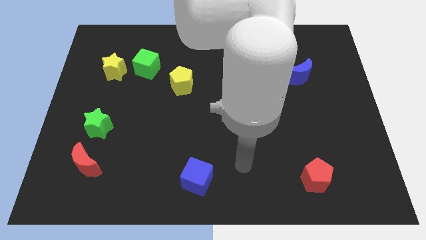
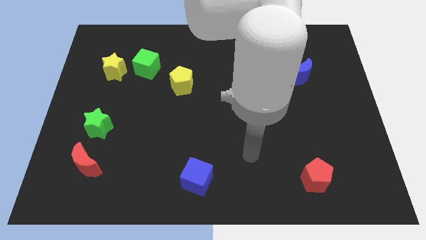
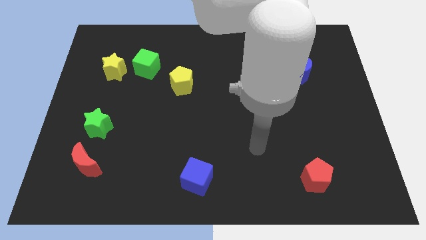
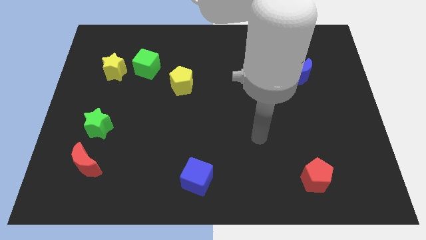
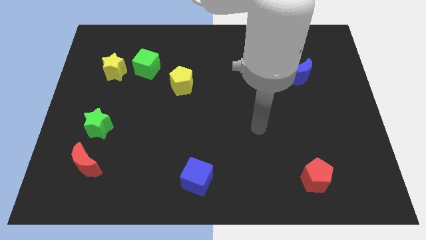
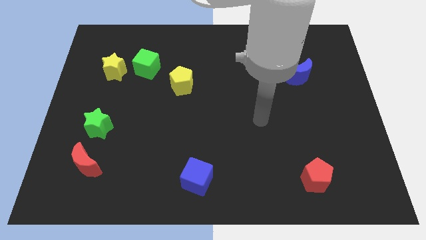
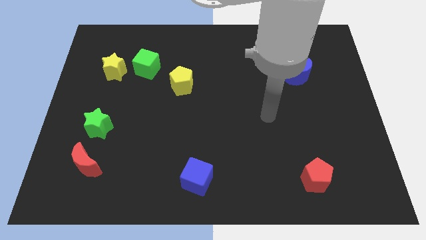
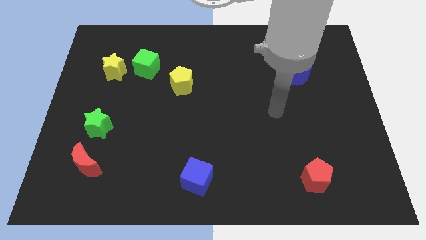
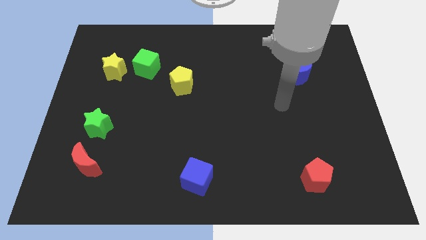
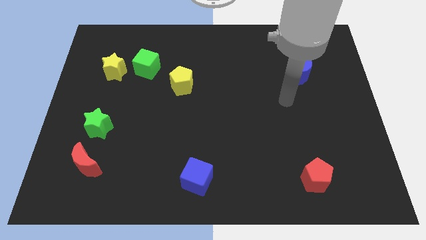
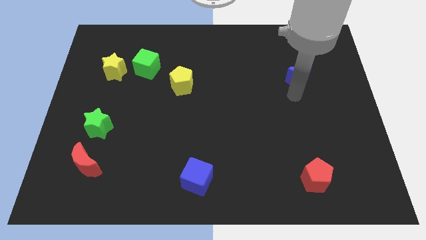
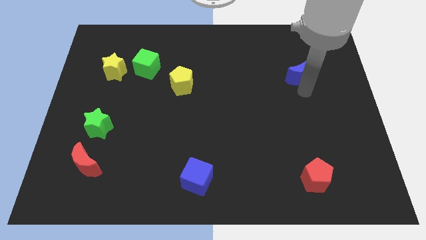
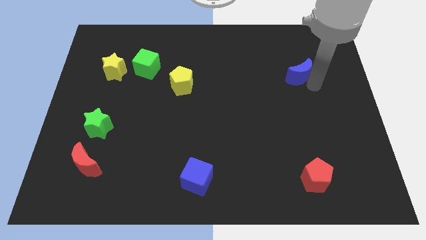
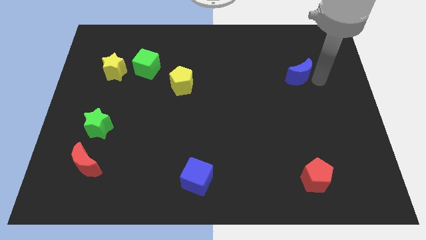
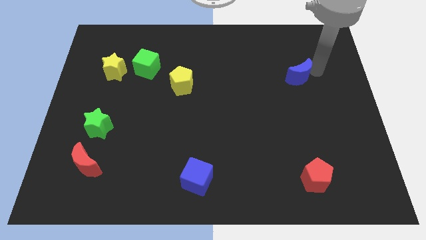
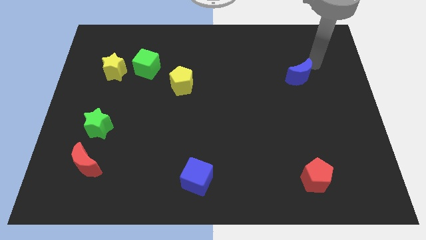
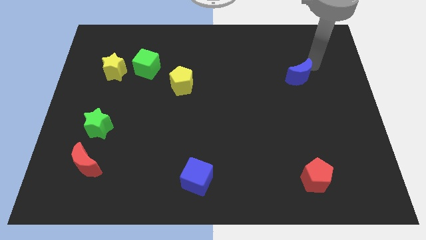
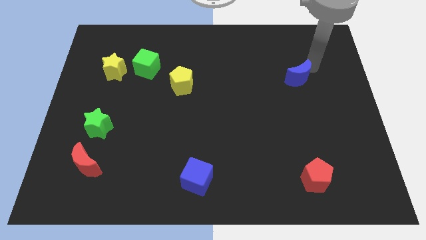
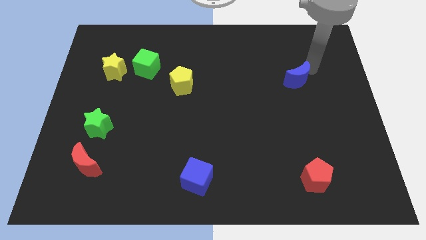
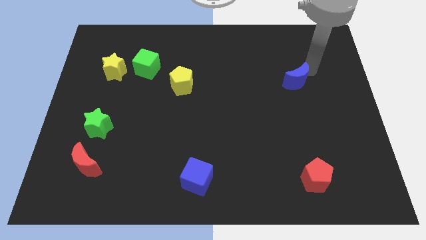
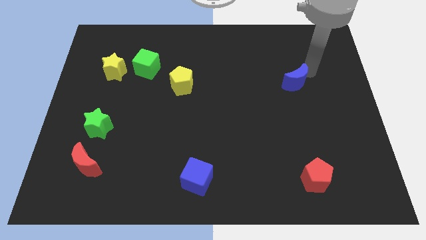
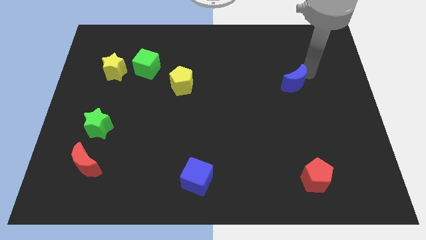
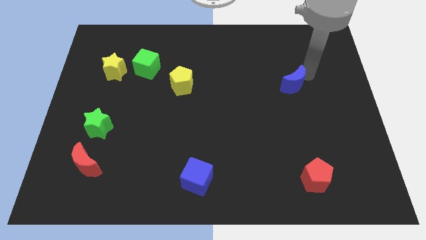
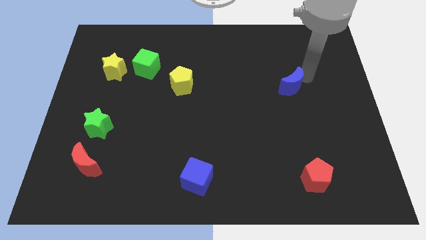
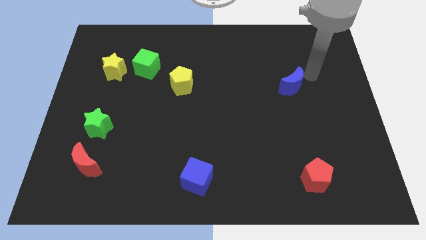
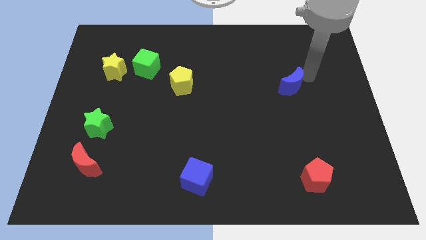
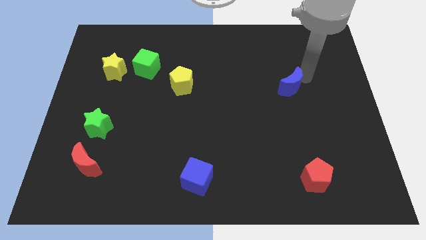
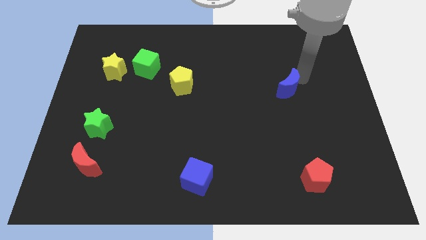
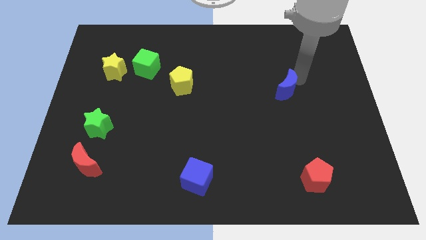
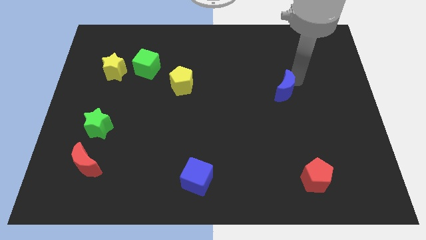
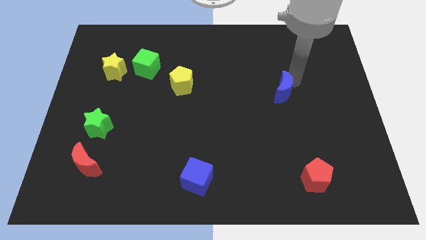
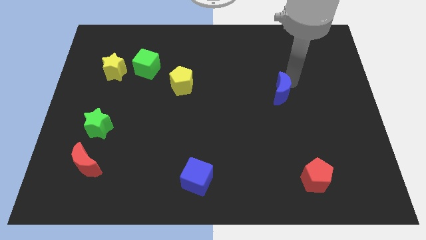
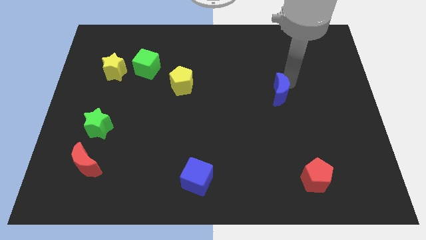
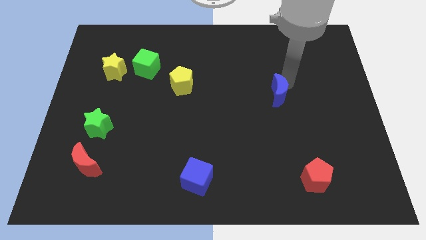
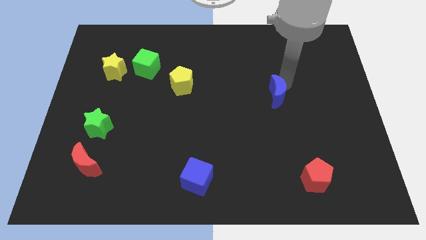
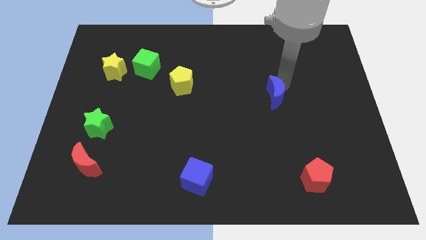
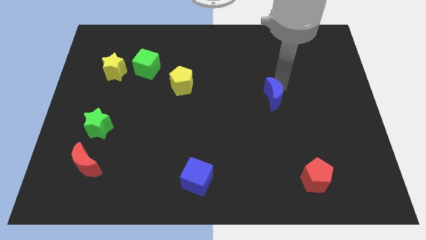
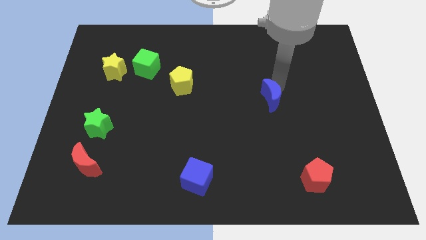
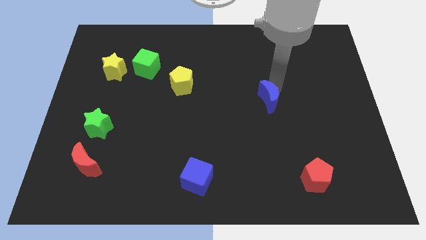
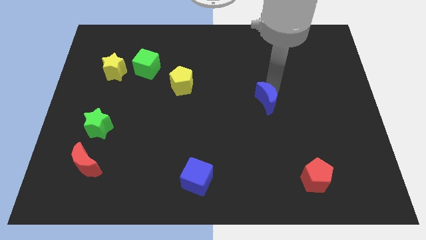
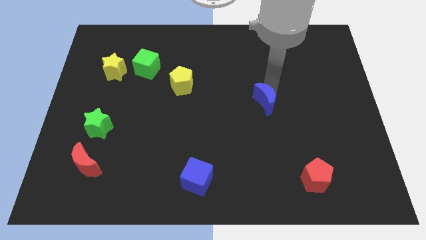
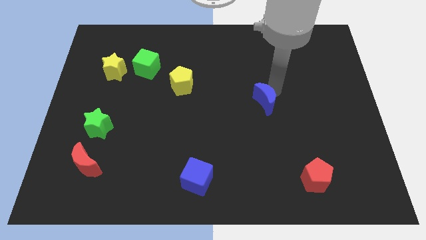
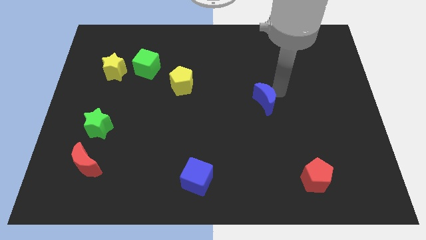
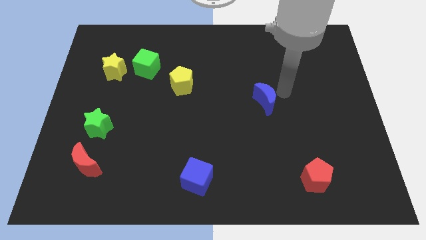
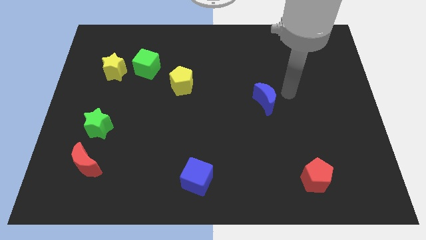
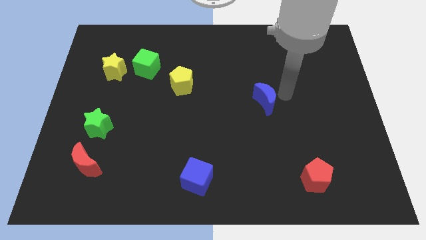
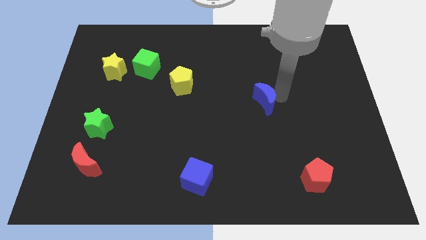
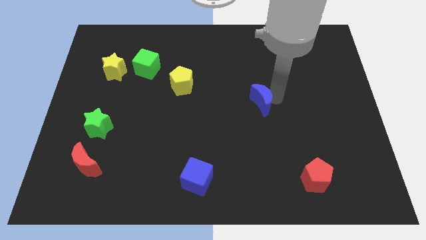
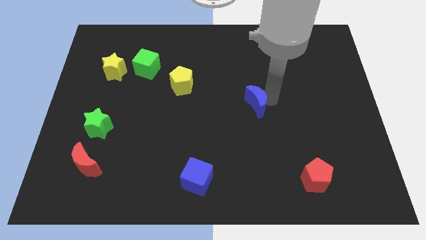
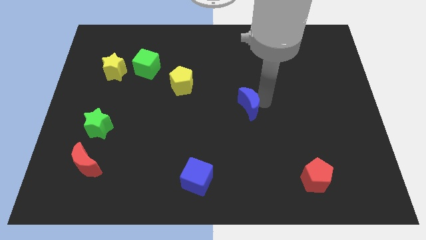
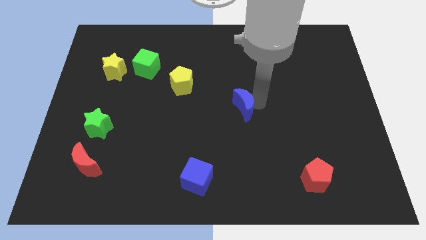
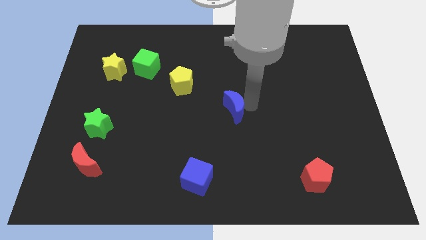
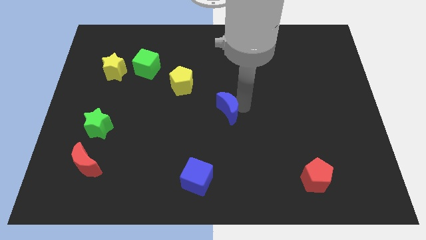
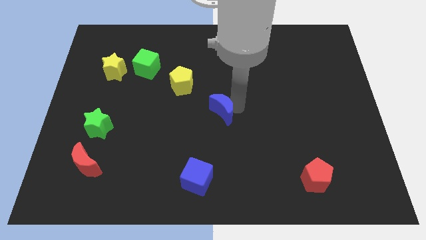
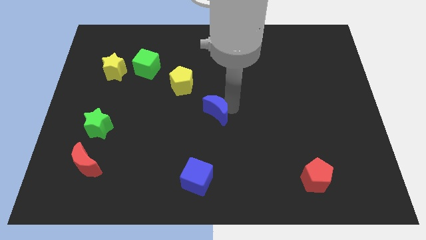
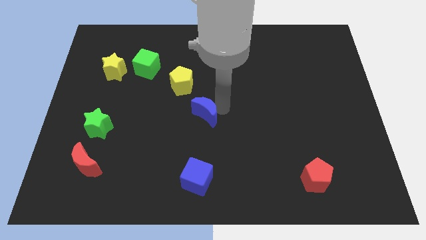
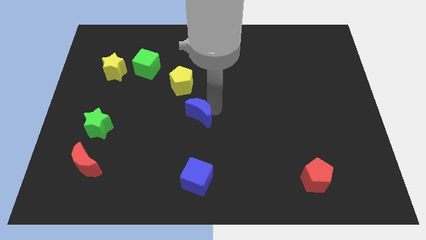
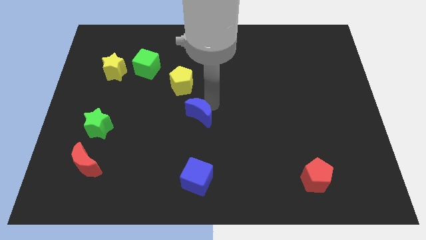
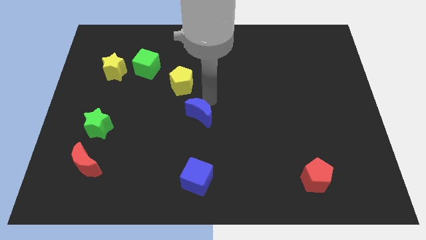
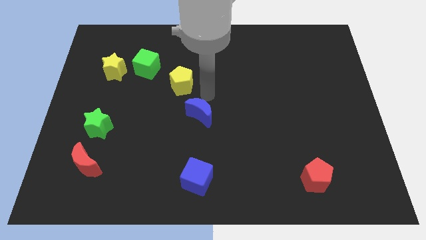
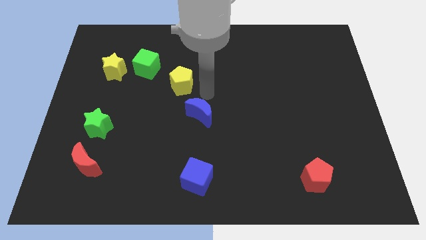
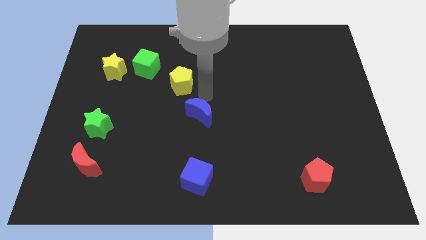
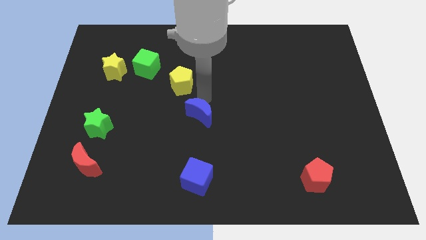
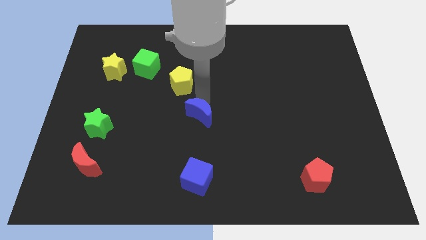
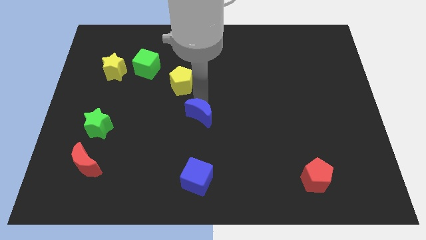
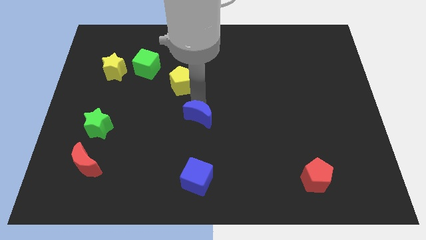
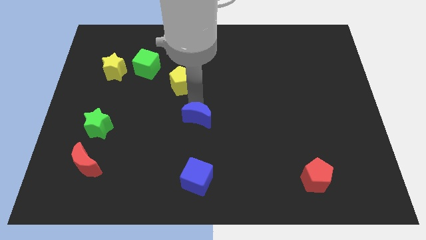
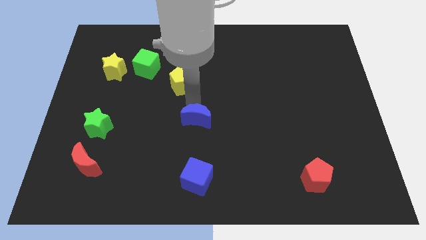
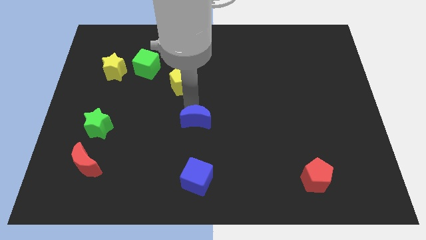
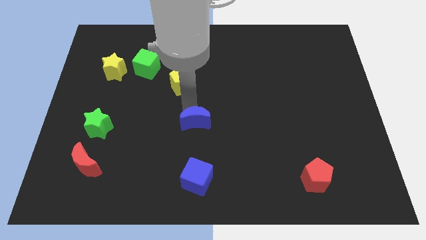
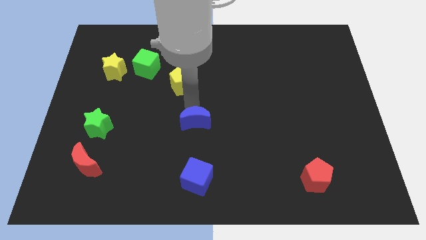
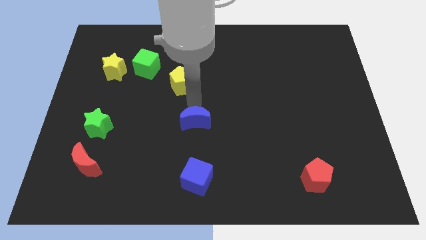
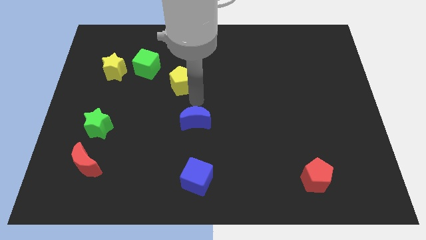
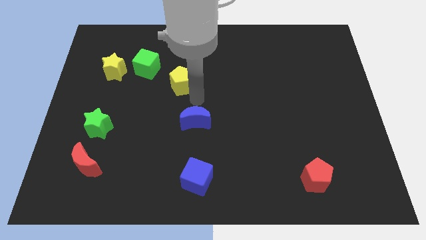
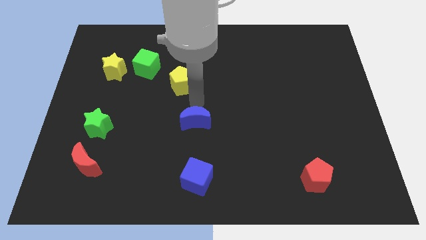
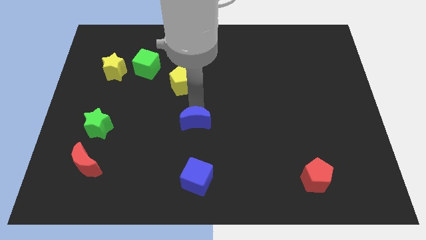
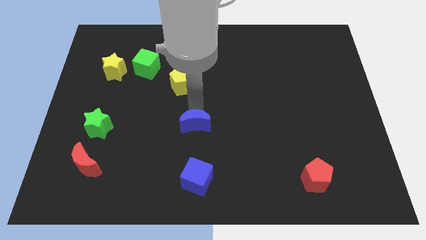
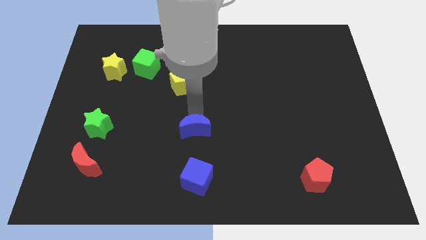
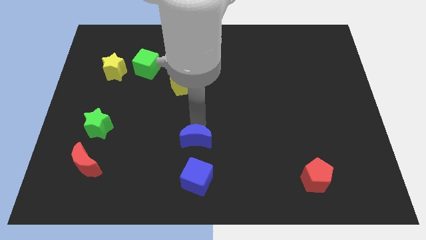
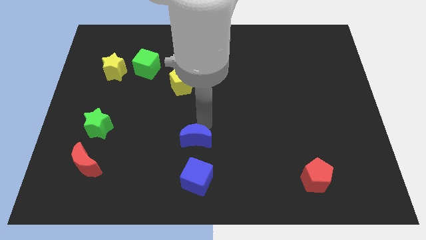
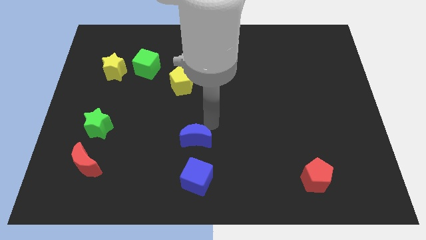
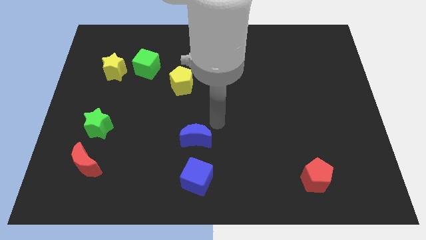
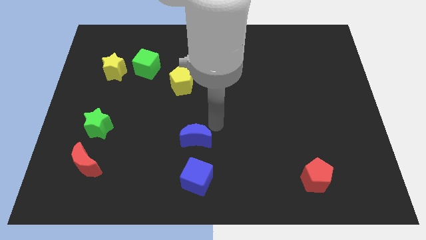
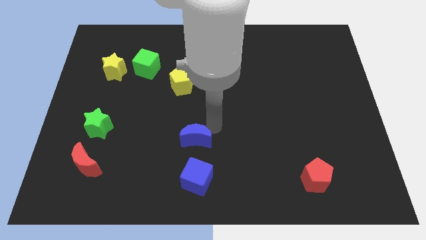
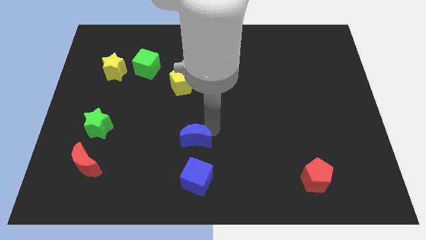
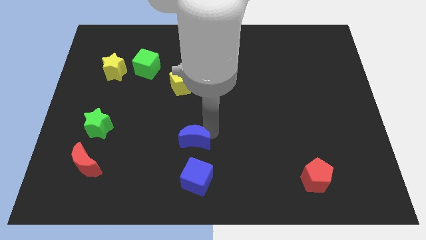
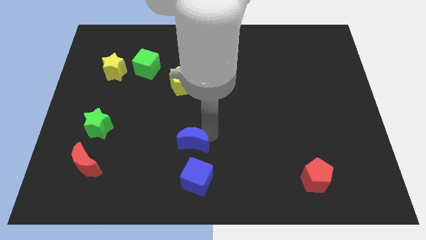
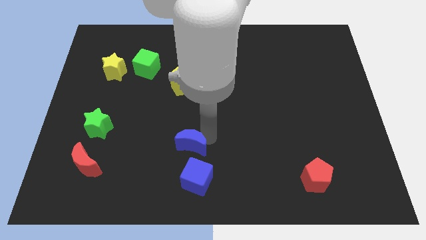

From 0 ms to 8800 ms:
move the blue moon to the top left side of the blue cube
